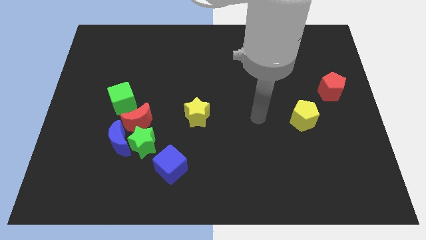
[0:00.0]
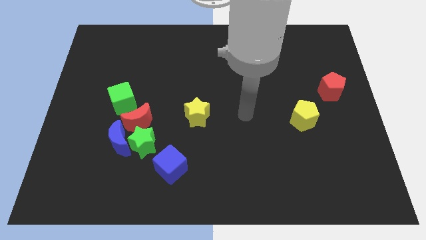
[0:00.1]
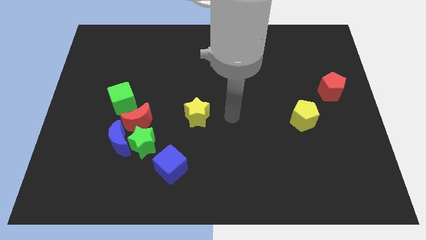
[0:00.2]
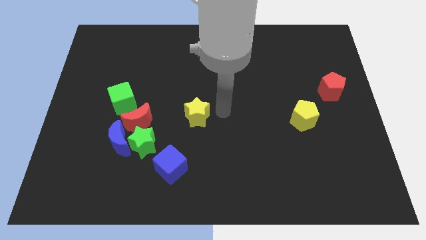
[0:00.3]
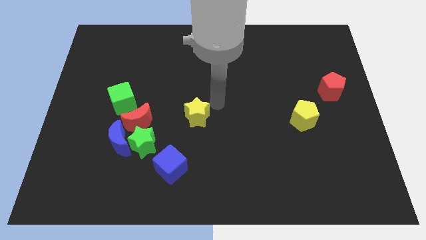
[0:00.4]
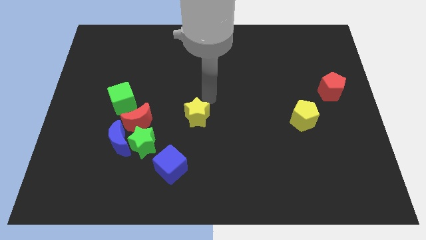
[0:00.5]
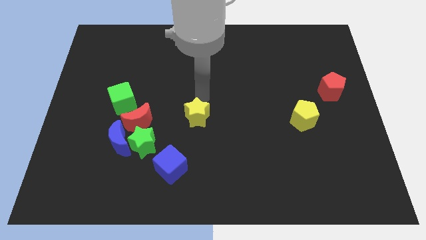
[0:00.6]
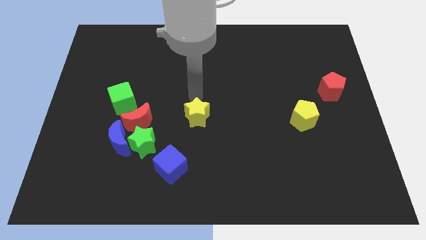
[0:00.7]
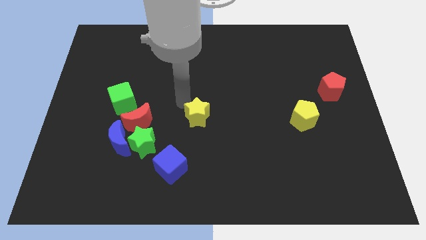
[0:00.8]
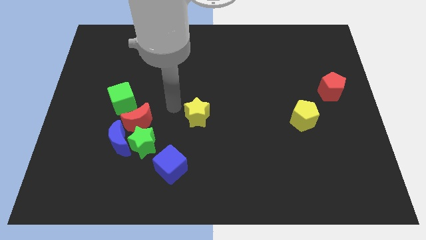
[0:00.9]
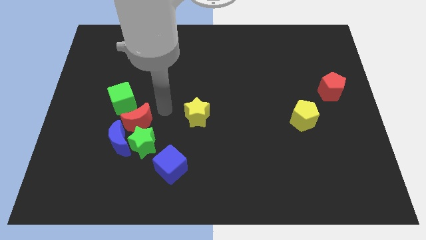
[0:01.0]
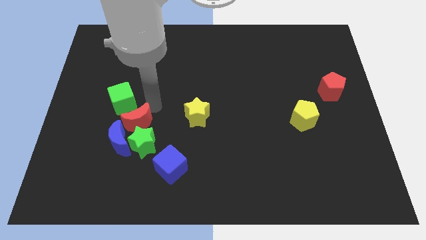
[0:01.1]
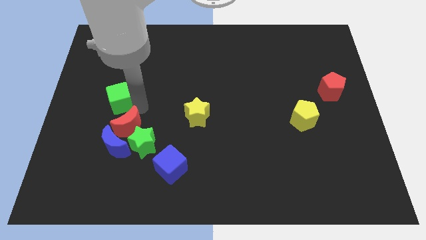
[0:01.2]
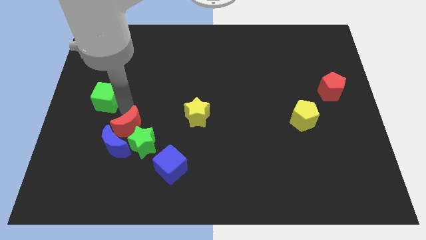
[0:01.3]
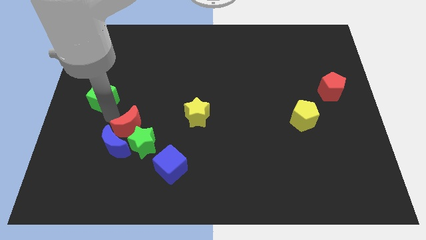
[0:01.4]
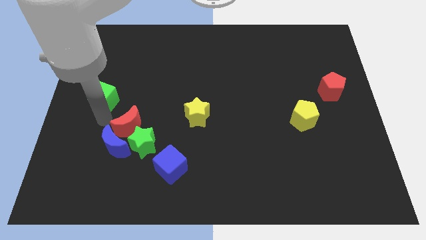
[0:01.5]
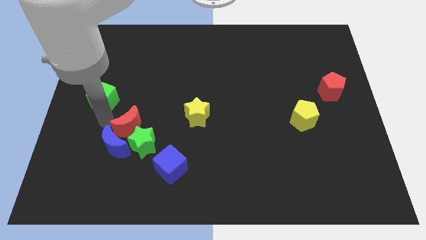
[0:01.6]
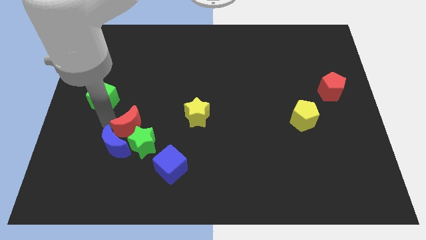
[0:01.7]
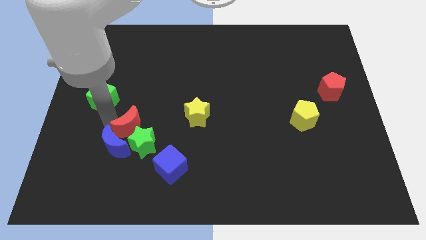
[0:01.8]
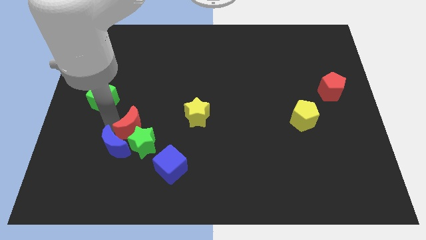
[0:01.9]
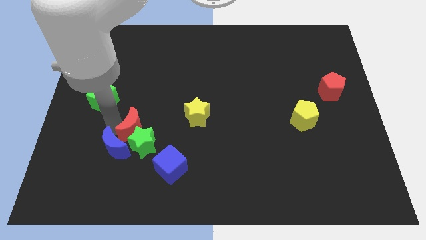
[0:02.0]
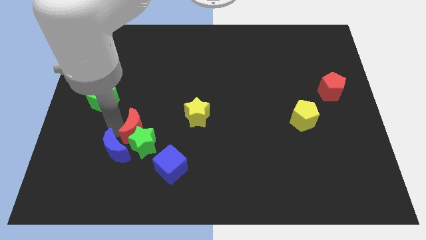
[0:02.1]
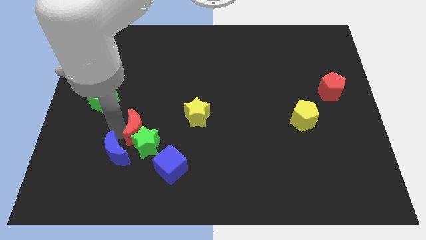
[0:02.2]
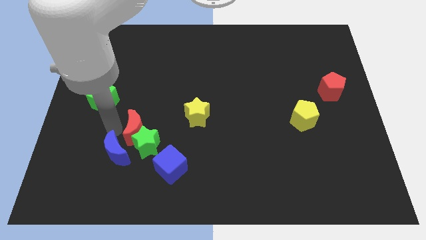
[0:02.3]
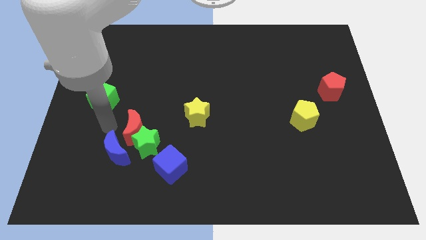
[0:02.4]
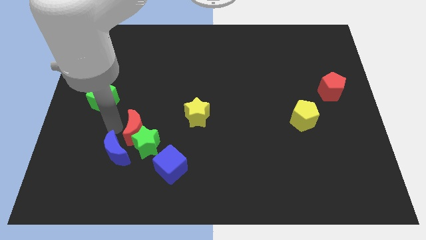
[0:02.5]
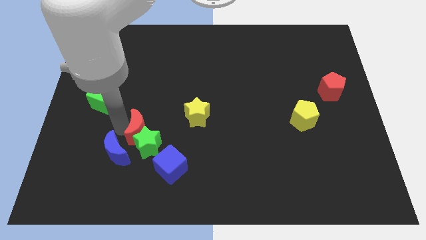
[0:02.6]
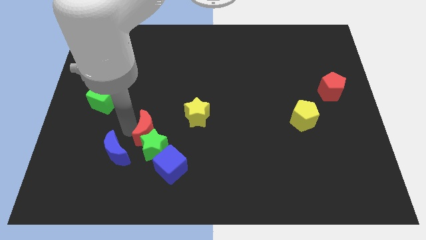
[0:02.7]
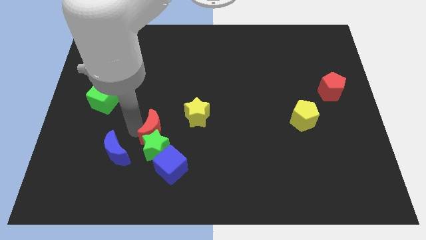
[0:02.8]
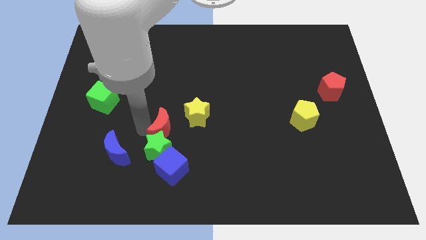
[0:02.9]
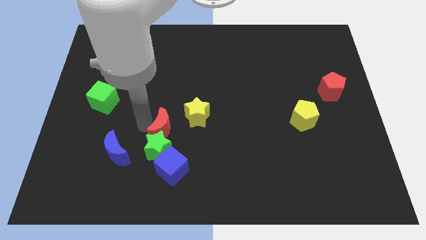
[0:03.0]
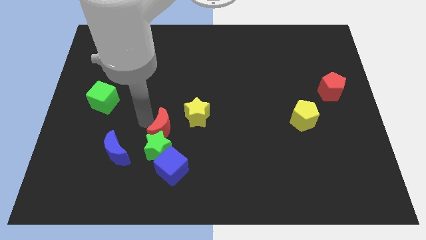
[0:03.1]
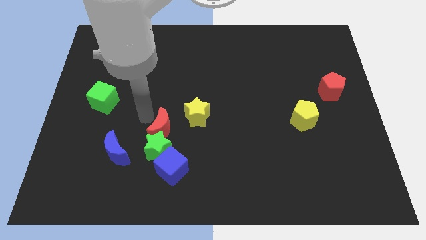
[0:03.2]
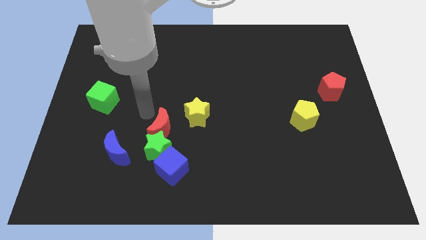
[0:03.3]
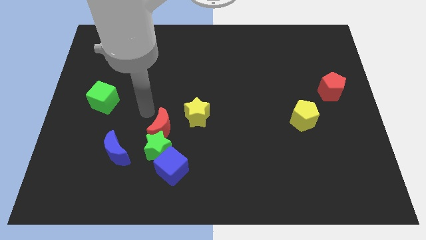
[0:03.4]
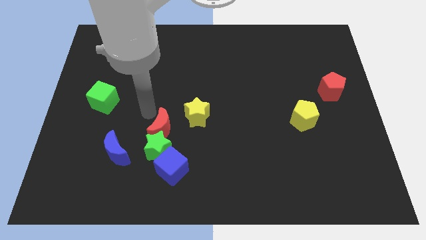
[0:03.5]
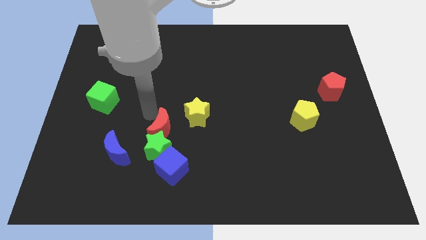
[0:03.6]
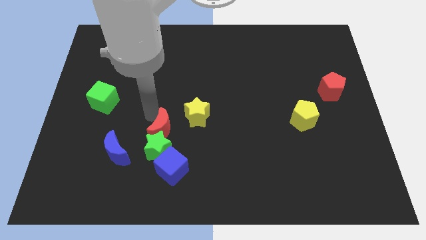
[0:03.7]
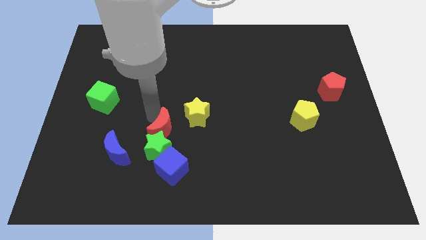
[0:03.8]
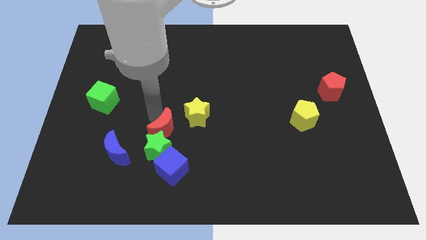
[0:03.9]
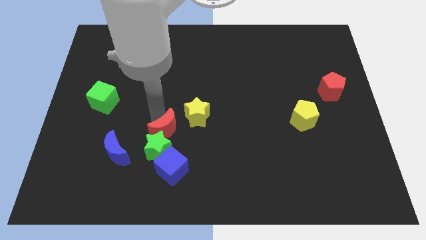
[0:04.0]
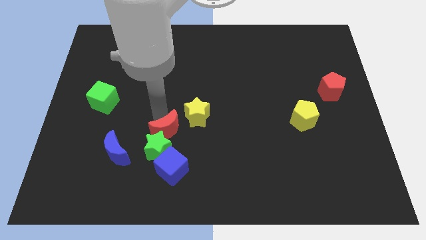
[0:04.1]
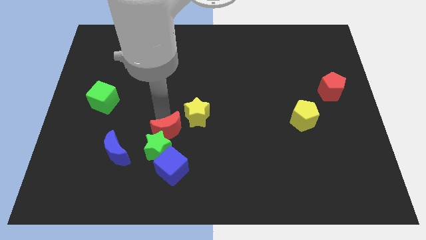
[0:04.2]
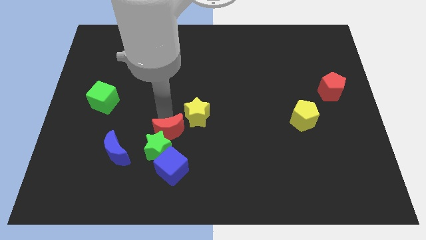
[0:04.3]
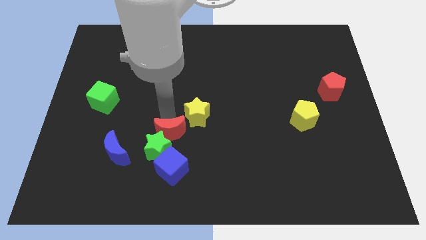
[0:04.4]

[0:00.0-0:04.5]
slide the red moon downwards and to the right somewhat

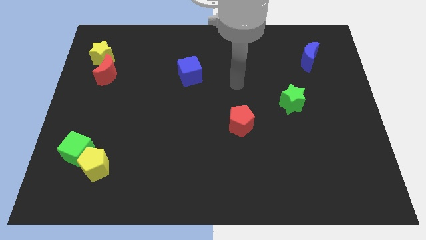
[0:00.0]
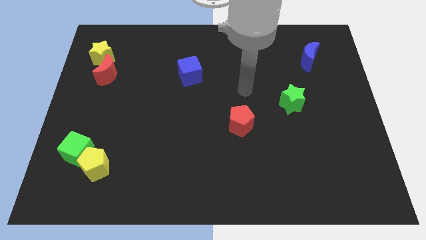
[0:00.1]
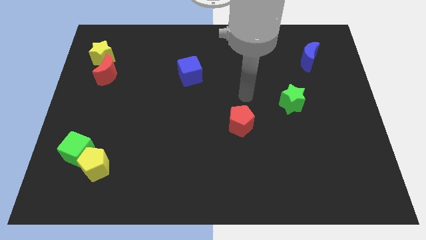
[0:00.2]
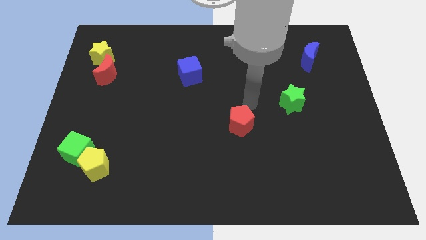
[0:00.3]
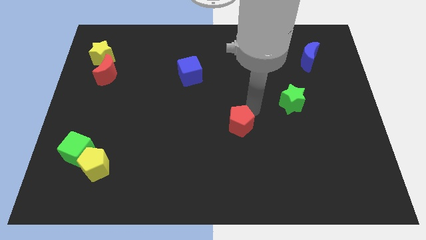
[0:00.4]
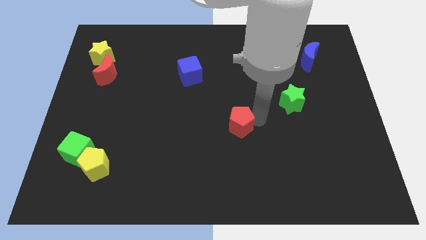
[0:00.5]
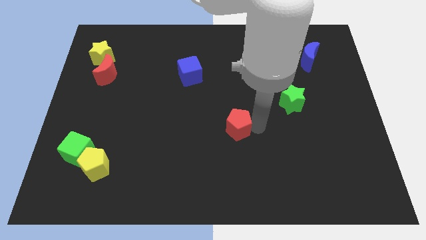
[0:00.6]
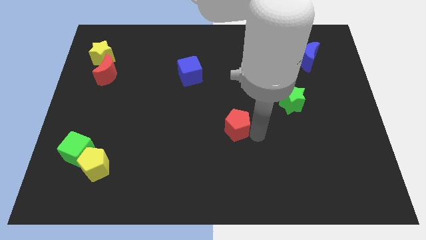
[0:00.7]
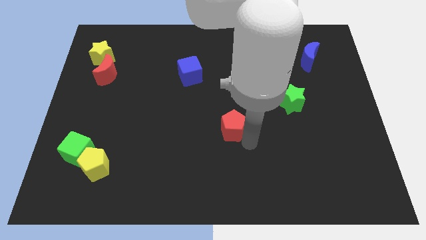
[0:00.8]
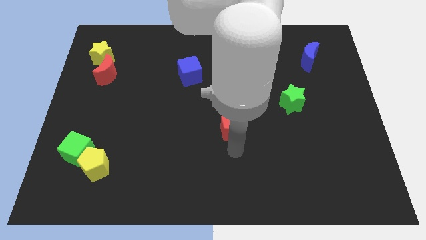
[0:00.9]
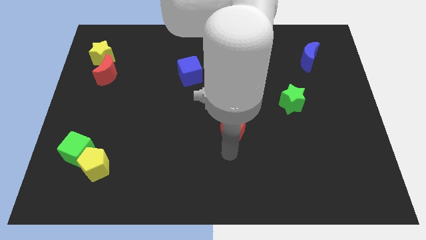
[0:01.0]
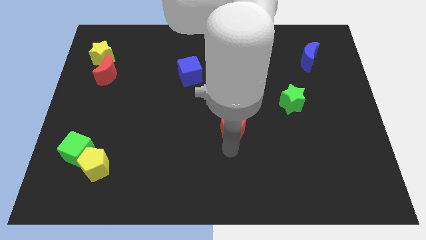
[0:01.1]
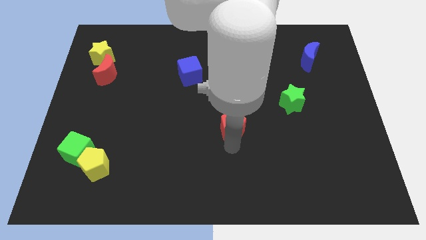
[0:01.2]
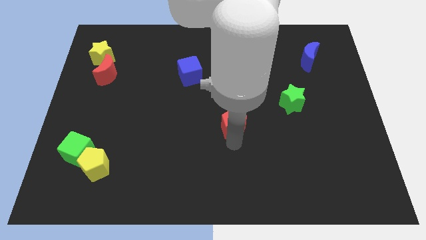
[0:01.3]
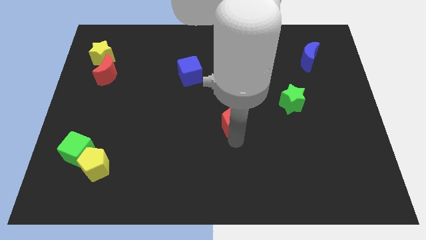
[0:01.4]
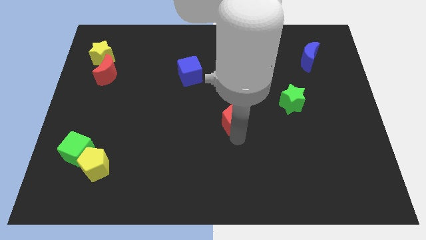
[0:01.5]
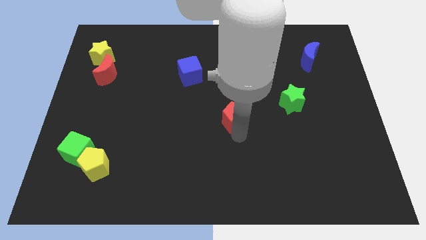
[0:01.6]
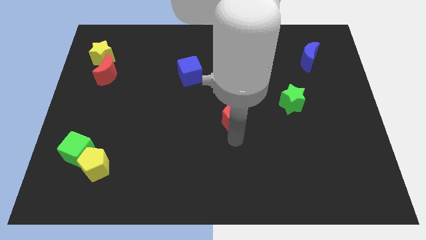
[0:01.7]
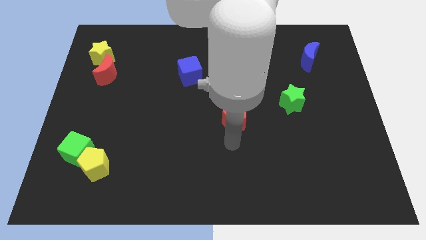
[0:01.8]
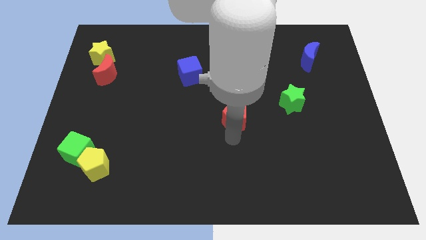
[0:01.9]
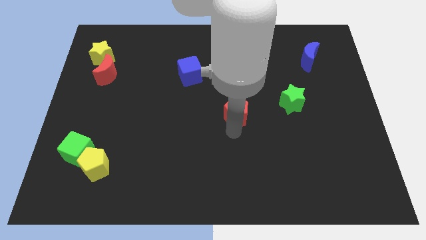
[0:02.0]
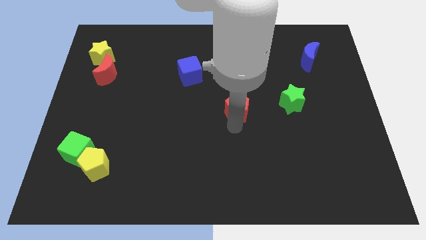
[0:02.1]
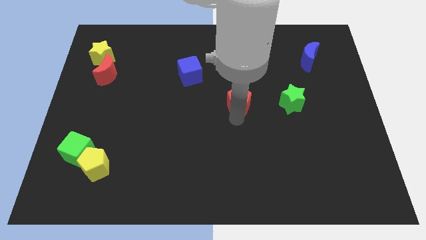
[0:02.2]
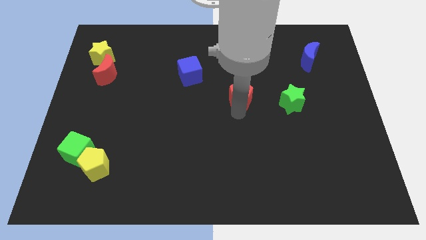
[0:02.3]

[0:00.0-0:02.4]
slide the red pentagon upwards a little

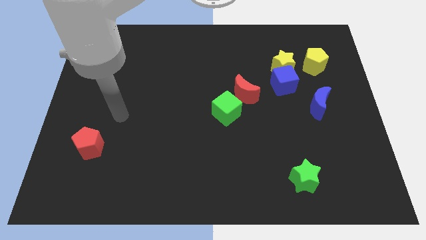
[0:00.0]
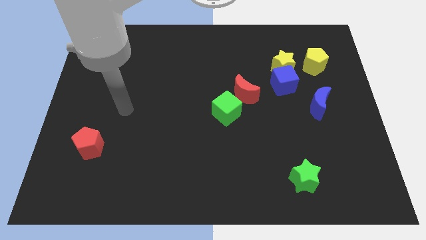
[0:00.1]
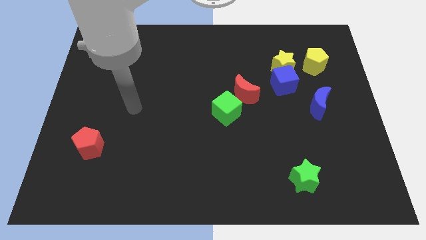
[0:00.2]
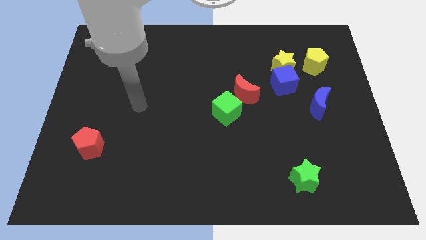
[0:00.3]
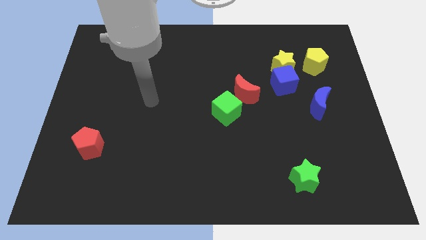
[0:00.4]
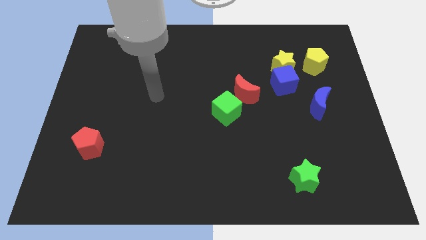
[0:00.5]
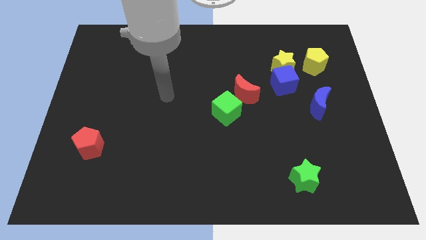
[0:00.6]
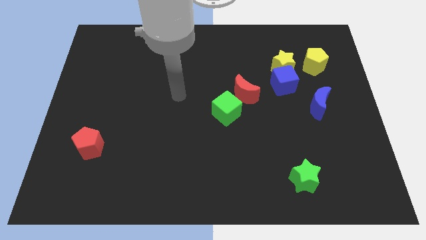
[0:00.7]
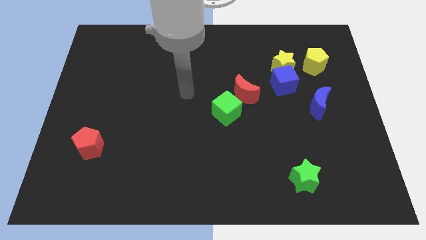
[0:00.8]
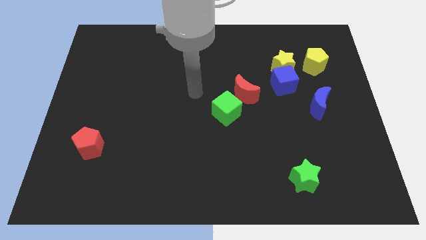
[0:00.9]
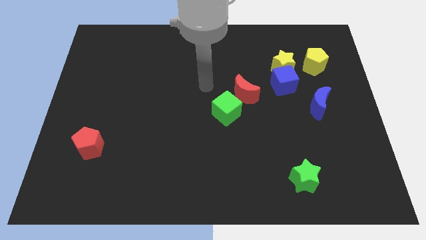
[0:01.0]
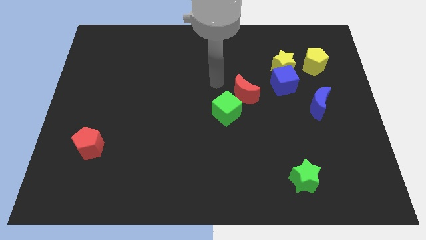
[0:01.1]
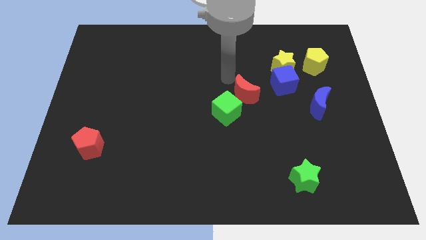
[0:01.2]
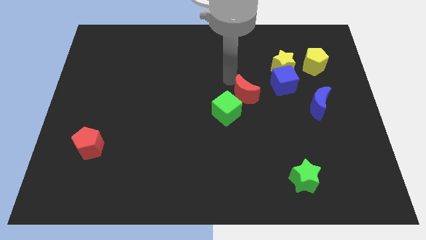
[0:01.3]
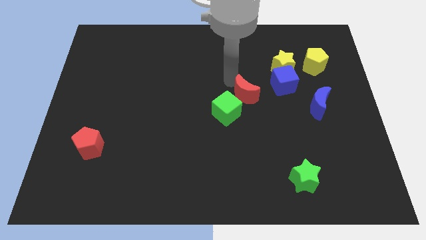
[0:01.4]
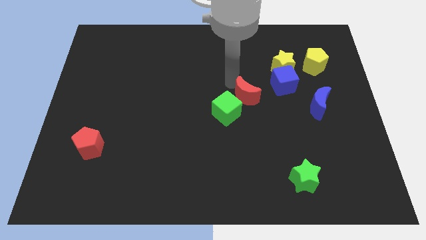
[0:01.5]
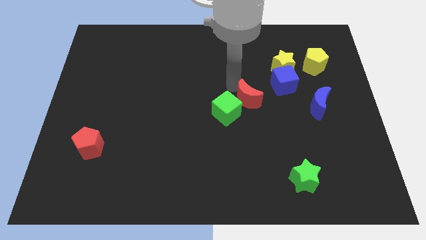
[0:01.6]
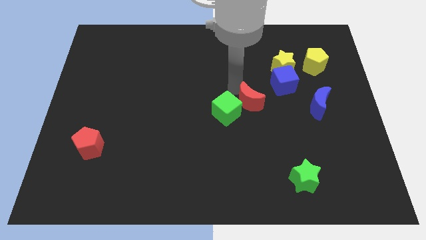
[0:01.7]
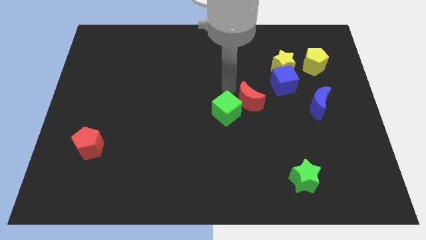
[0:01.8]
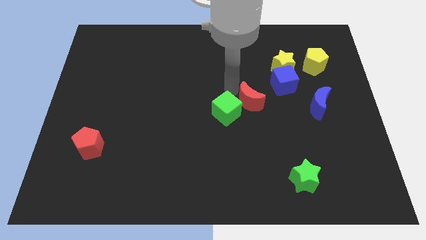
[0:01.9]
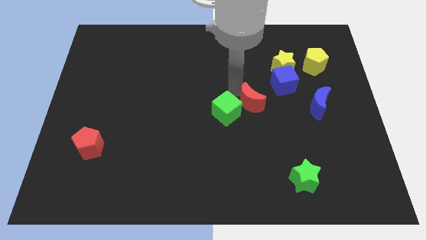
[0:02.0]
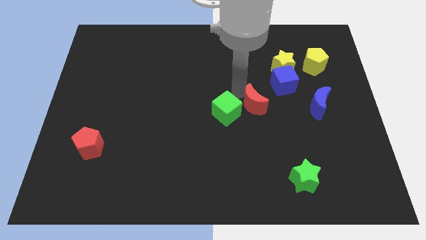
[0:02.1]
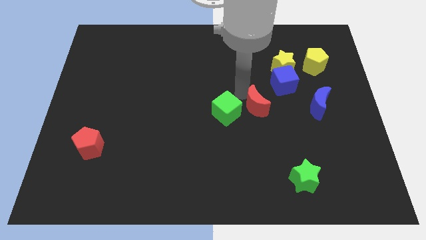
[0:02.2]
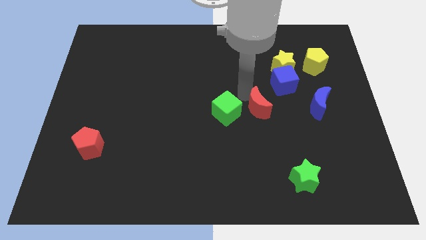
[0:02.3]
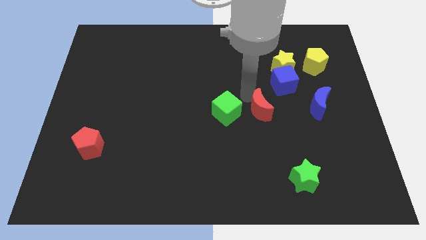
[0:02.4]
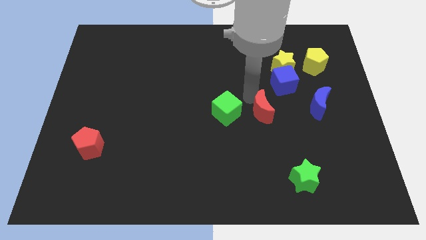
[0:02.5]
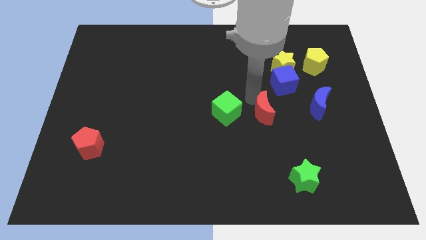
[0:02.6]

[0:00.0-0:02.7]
slightly push the red moon downwards and to the right
